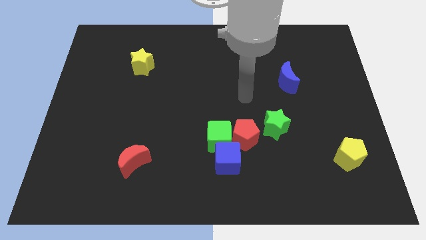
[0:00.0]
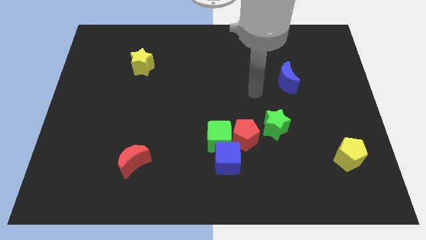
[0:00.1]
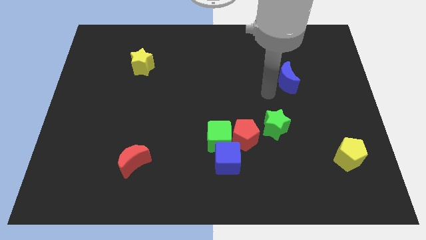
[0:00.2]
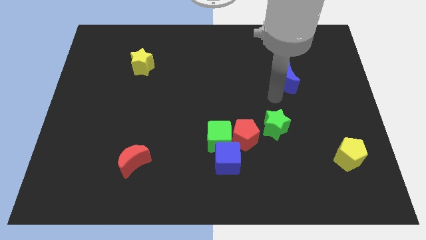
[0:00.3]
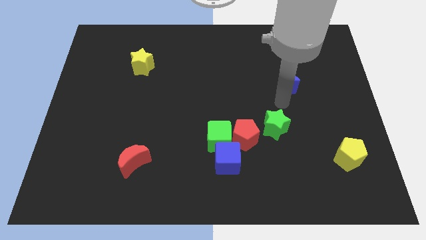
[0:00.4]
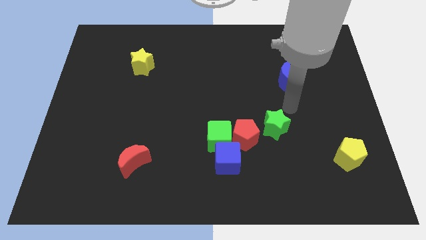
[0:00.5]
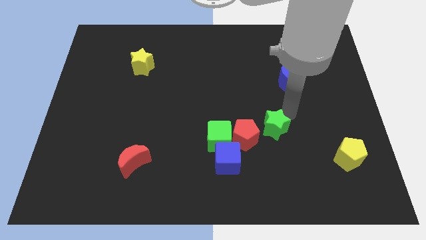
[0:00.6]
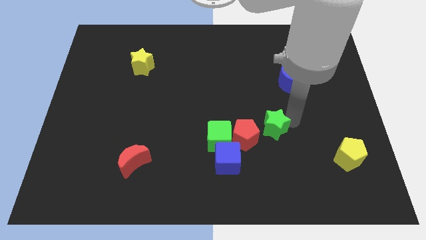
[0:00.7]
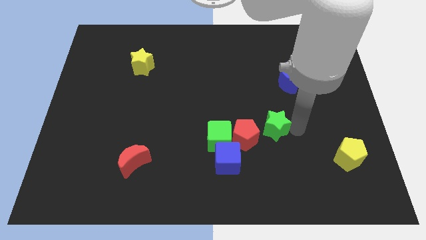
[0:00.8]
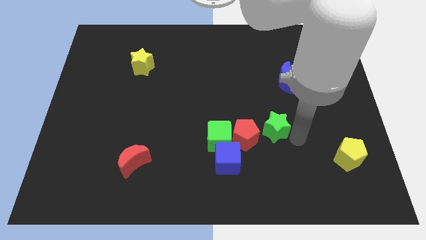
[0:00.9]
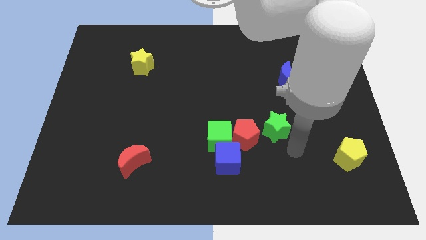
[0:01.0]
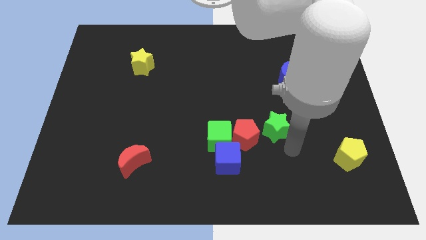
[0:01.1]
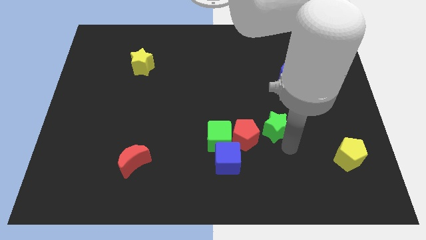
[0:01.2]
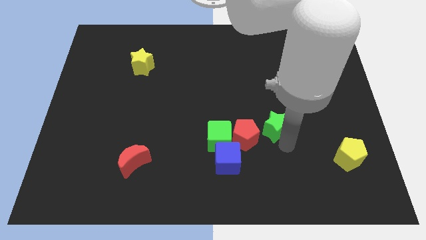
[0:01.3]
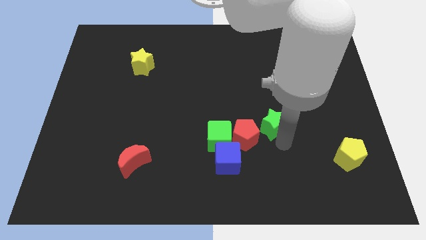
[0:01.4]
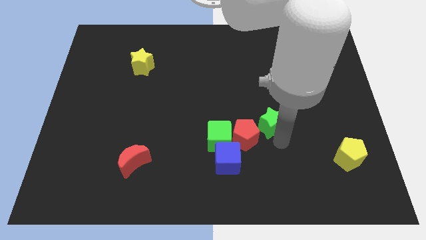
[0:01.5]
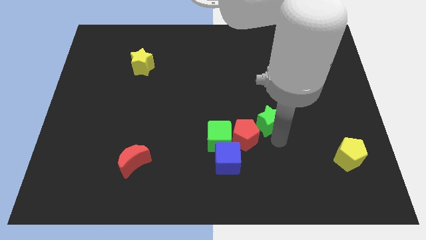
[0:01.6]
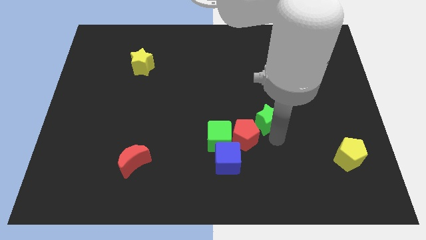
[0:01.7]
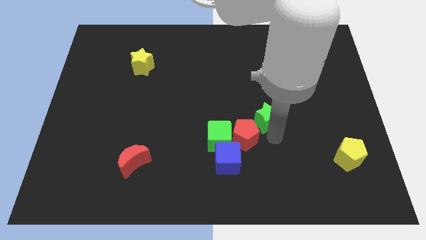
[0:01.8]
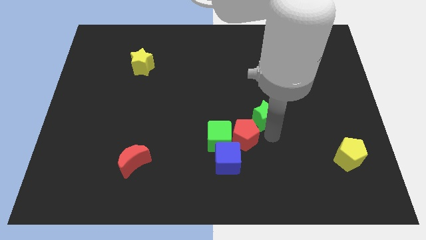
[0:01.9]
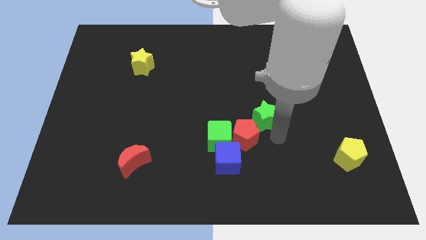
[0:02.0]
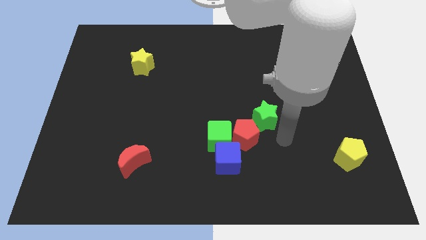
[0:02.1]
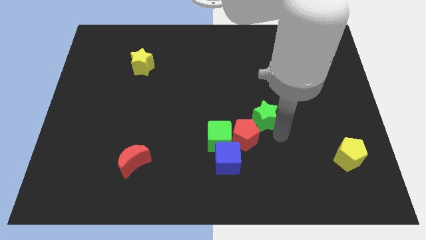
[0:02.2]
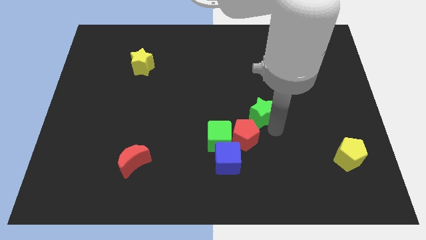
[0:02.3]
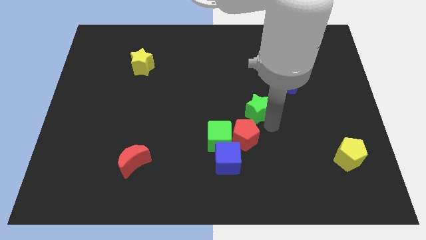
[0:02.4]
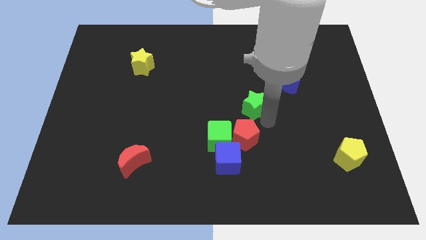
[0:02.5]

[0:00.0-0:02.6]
push the green star somewhat diagonally upwards and to the left

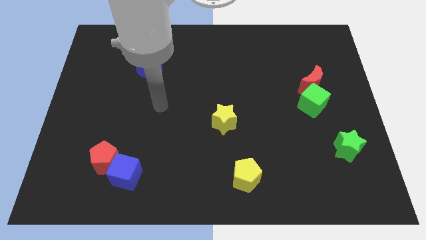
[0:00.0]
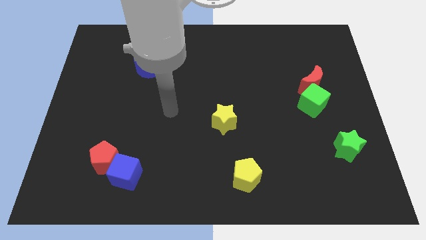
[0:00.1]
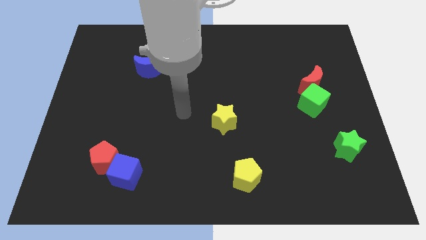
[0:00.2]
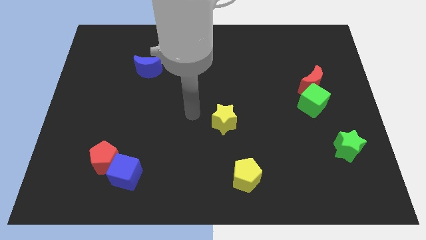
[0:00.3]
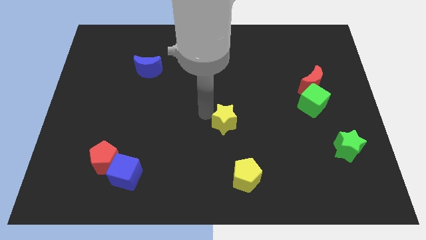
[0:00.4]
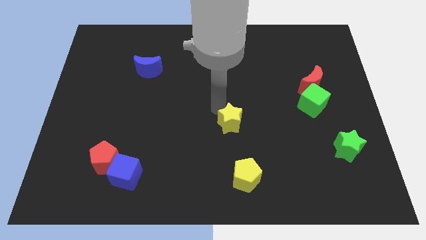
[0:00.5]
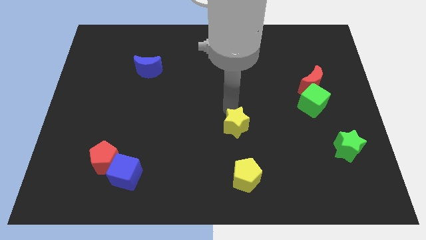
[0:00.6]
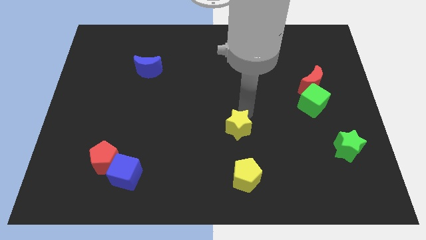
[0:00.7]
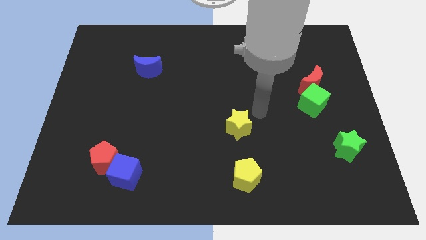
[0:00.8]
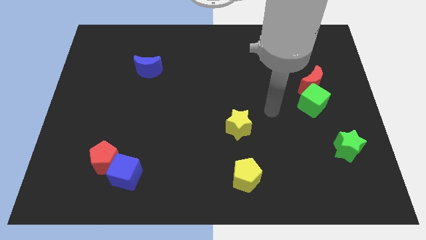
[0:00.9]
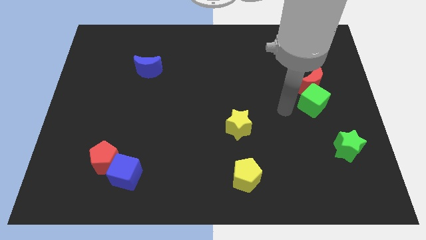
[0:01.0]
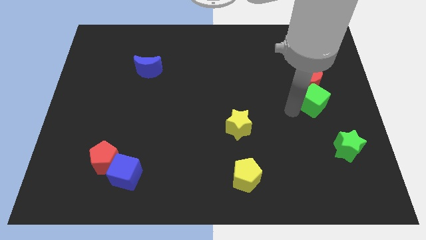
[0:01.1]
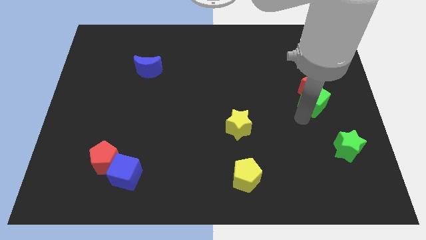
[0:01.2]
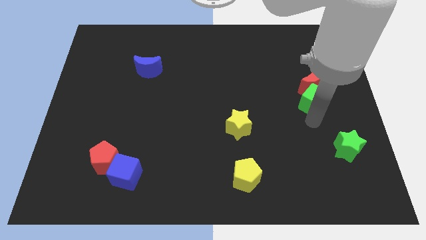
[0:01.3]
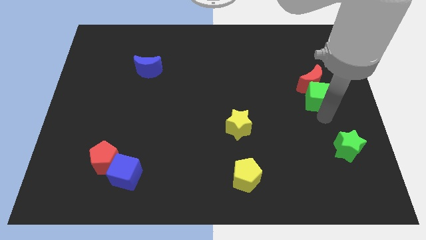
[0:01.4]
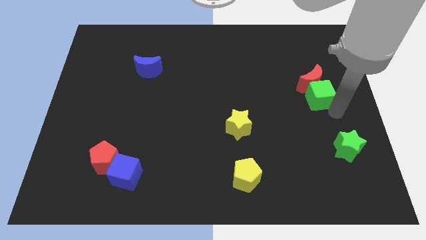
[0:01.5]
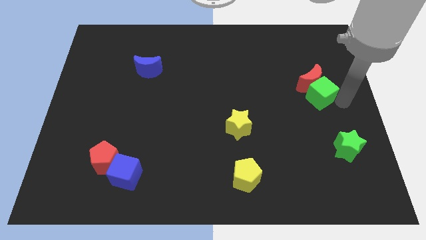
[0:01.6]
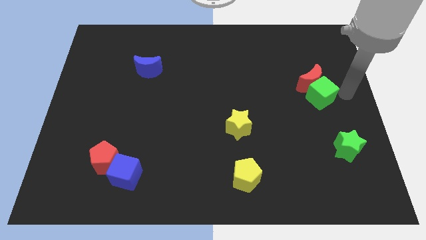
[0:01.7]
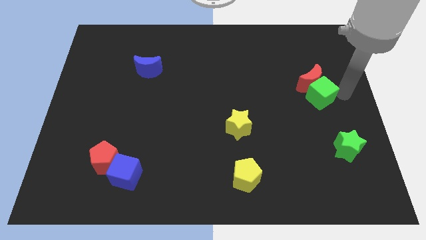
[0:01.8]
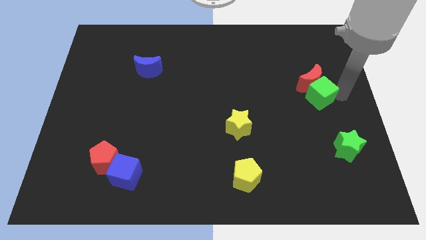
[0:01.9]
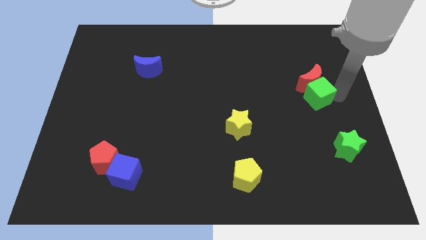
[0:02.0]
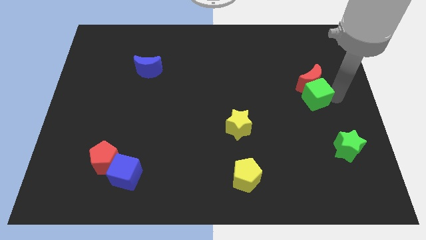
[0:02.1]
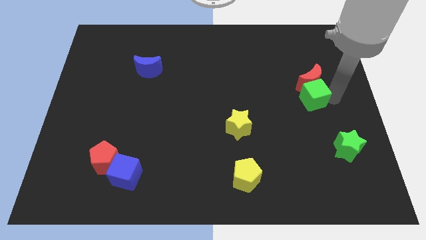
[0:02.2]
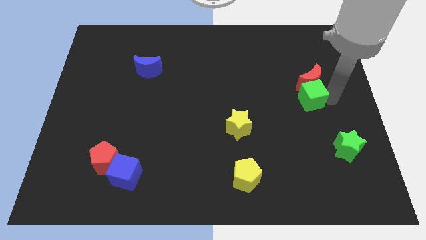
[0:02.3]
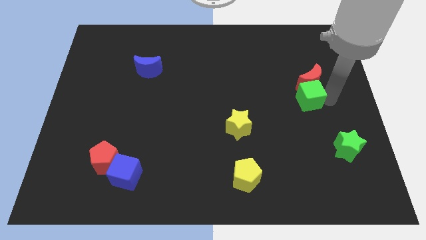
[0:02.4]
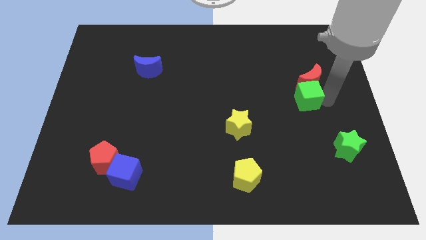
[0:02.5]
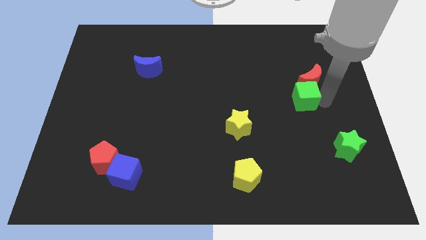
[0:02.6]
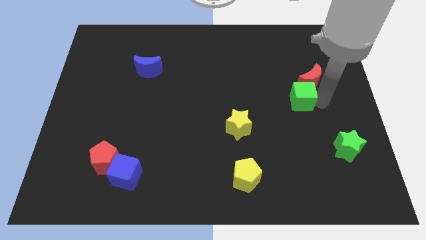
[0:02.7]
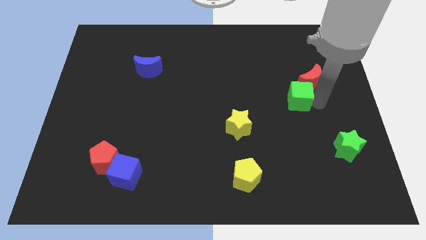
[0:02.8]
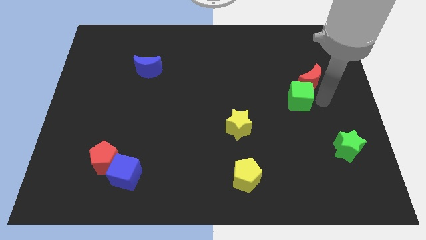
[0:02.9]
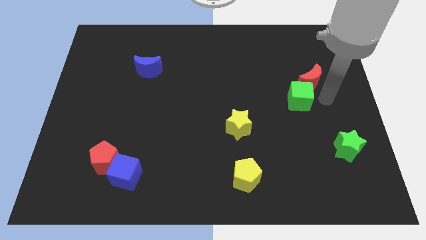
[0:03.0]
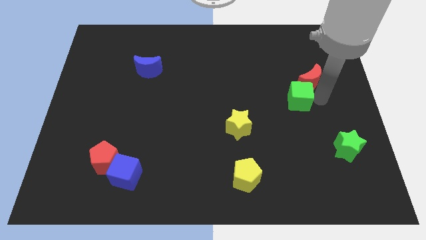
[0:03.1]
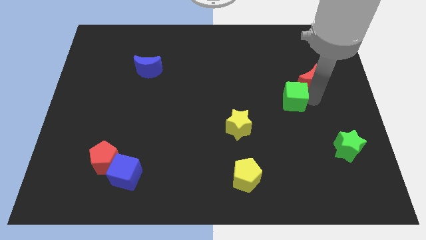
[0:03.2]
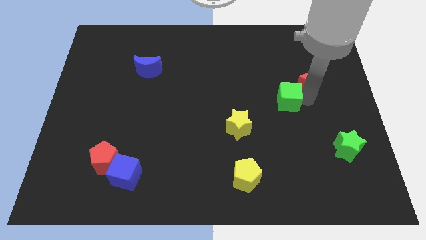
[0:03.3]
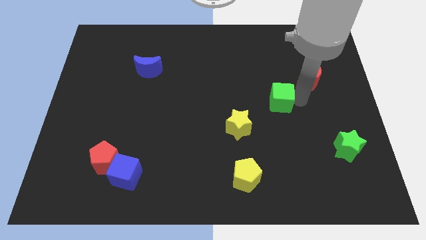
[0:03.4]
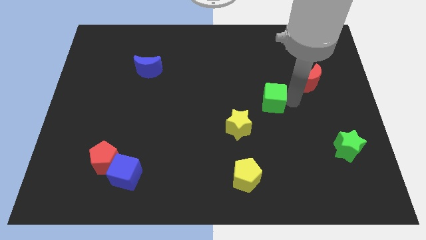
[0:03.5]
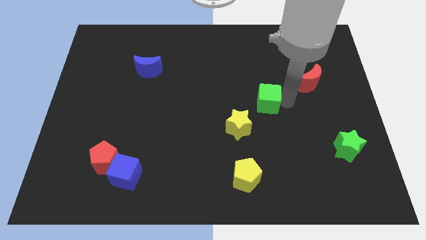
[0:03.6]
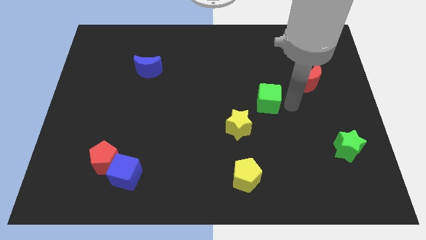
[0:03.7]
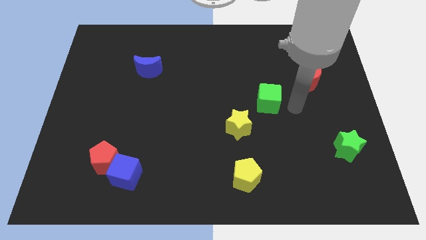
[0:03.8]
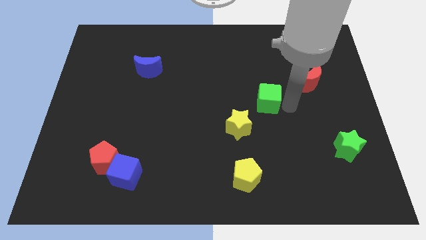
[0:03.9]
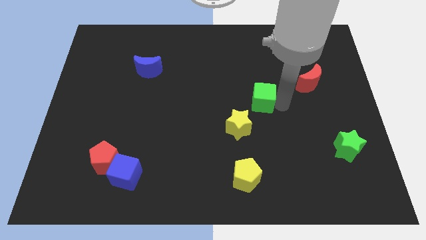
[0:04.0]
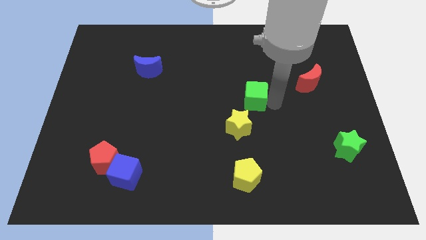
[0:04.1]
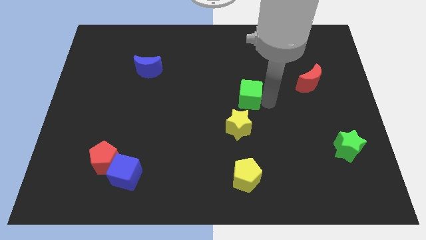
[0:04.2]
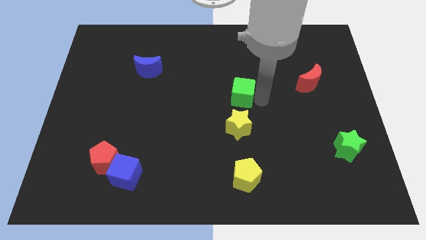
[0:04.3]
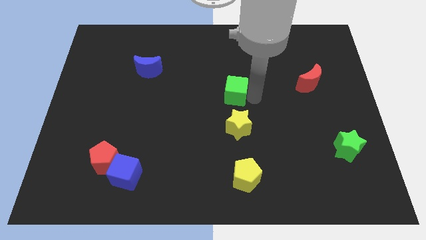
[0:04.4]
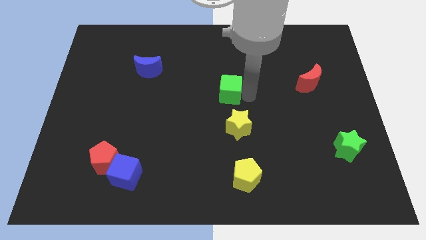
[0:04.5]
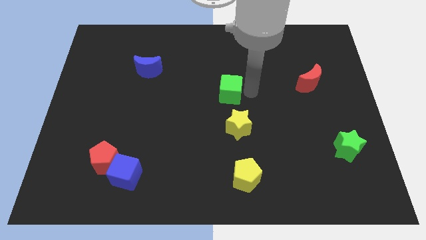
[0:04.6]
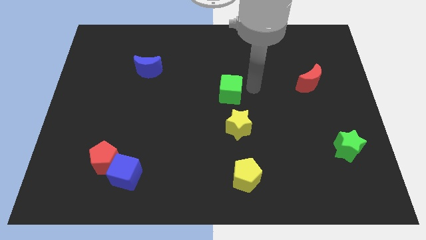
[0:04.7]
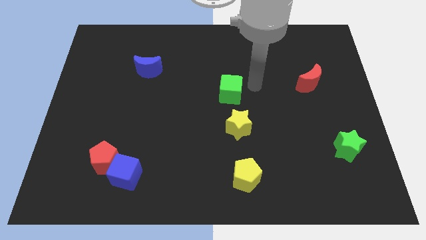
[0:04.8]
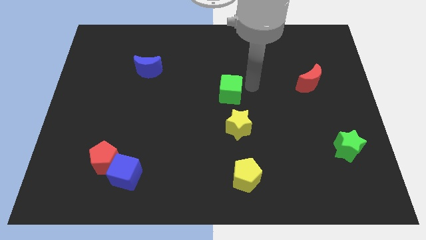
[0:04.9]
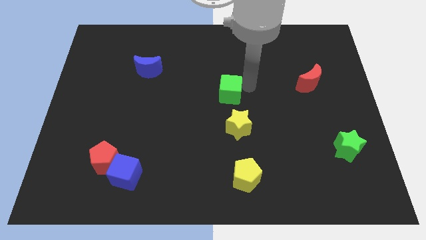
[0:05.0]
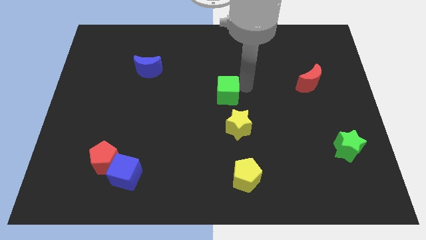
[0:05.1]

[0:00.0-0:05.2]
push the green cube to the left
